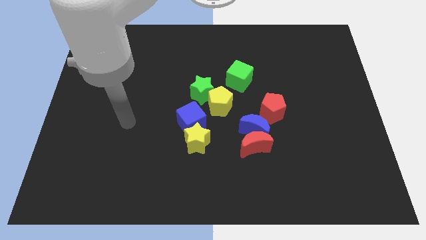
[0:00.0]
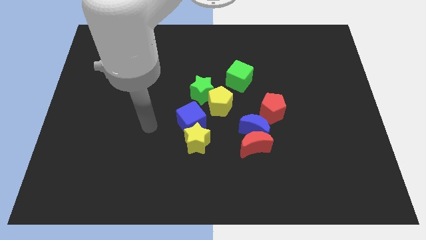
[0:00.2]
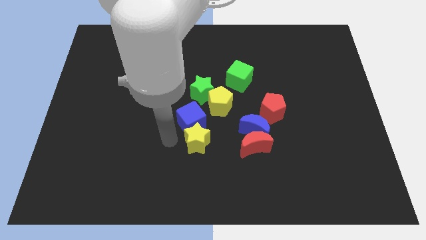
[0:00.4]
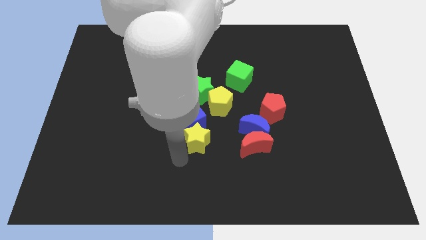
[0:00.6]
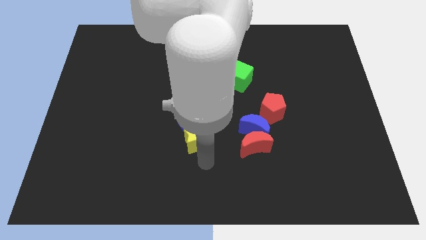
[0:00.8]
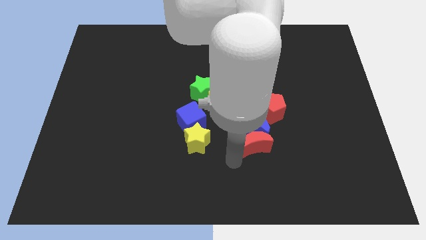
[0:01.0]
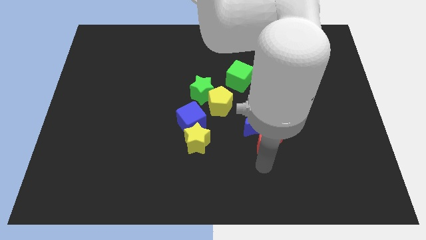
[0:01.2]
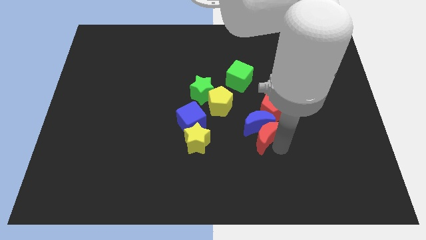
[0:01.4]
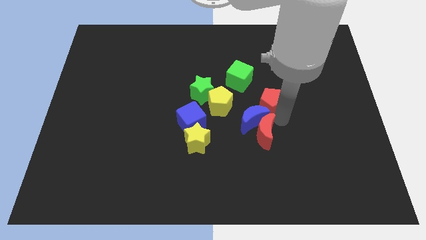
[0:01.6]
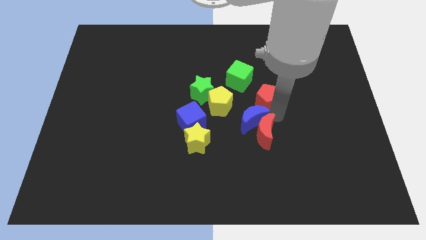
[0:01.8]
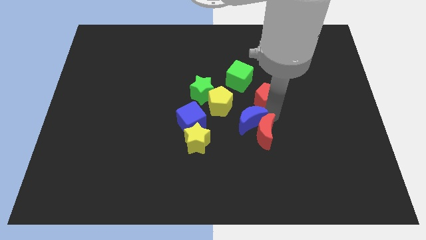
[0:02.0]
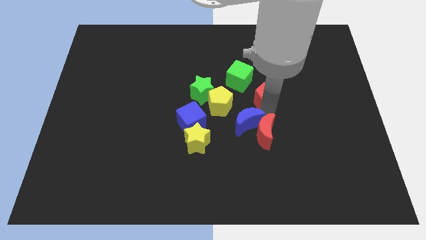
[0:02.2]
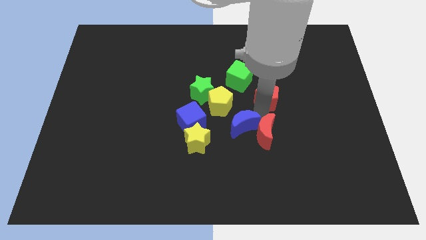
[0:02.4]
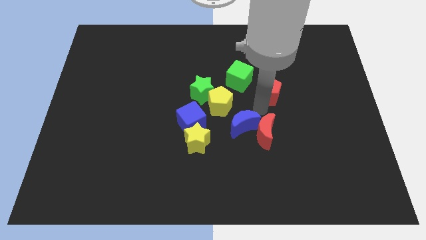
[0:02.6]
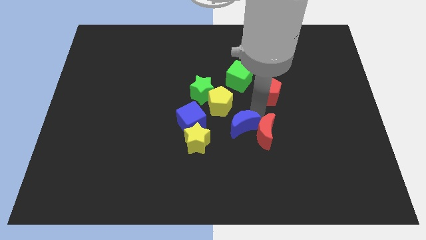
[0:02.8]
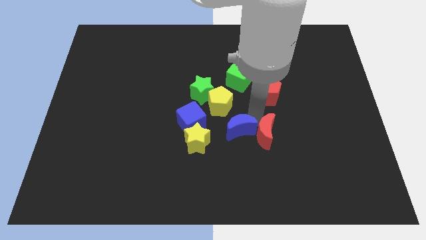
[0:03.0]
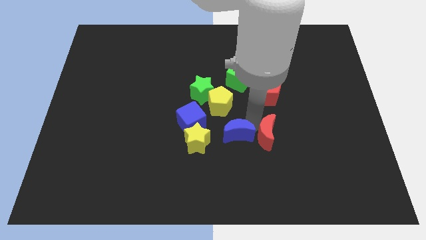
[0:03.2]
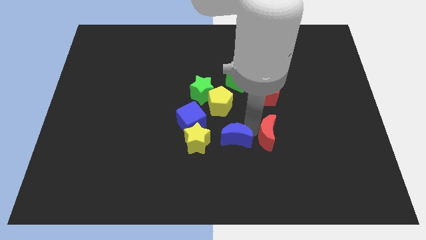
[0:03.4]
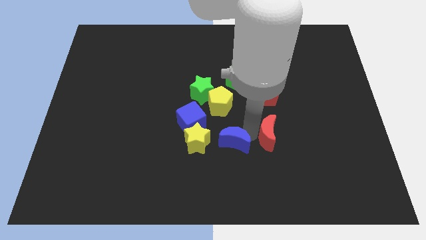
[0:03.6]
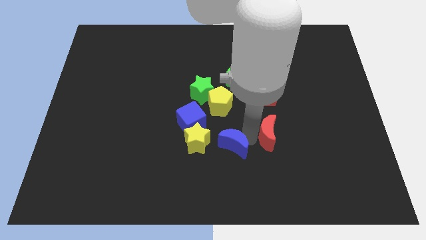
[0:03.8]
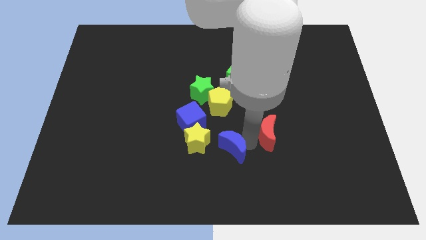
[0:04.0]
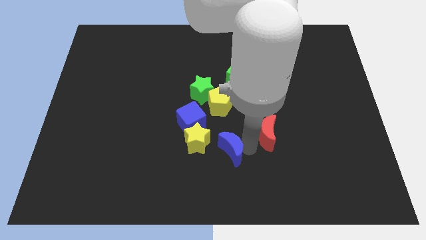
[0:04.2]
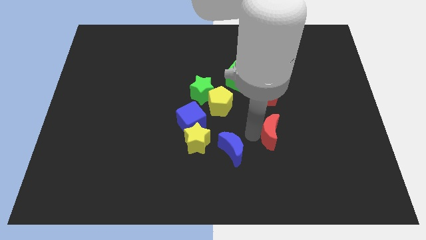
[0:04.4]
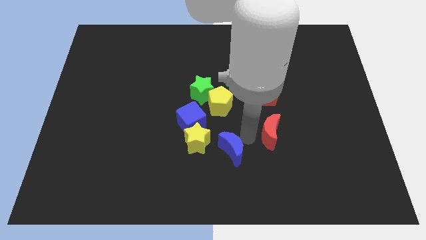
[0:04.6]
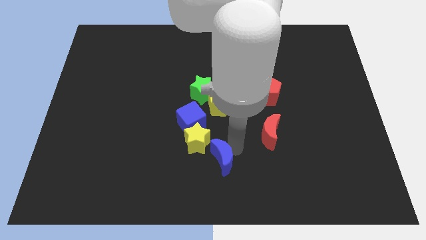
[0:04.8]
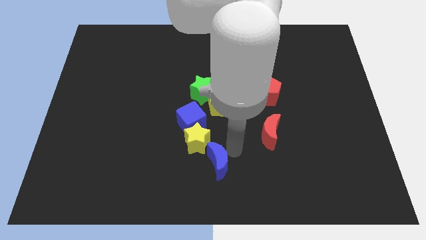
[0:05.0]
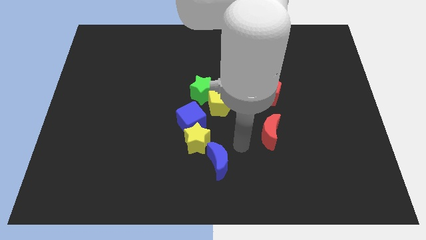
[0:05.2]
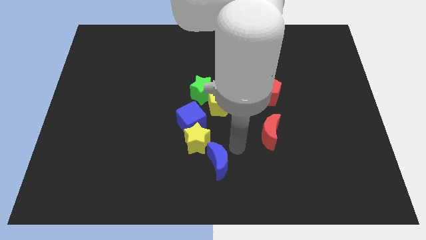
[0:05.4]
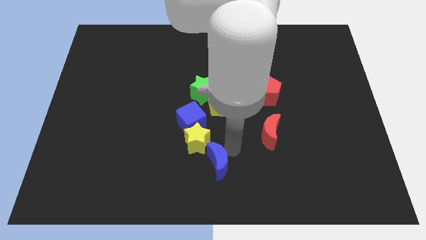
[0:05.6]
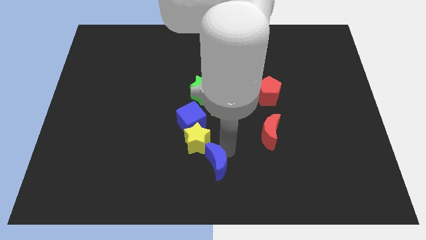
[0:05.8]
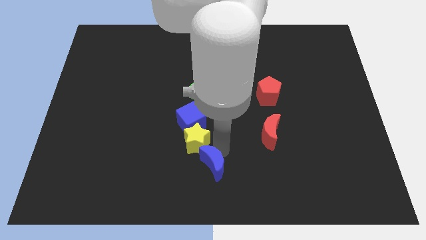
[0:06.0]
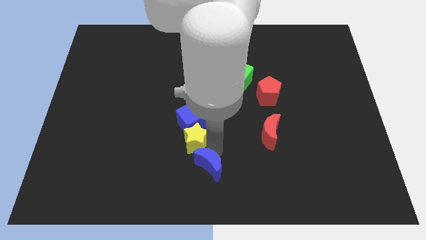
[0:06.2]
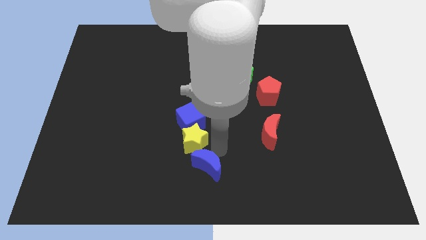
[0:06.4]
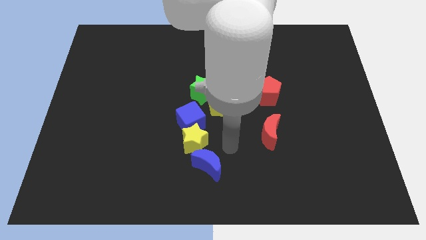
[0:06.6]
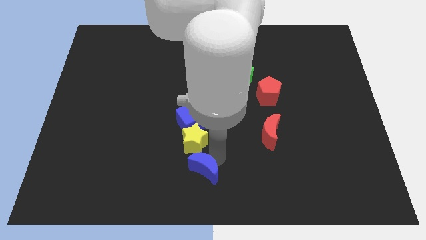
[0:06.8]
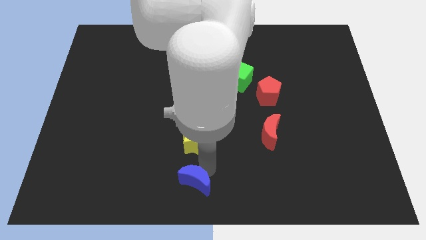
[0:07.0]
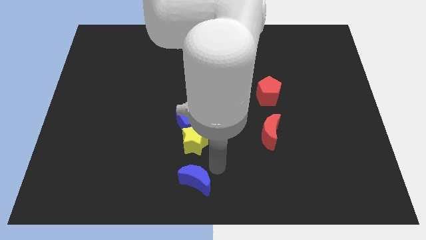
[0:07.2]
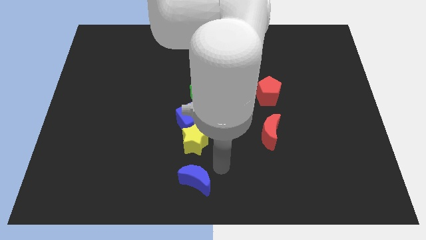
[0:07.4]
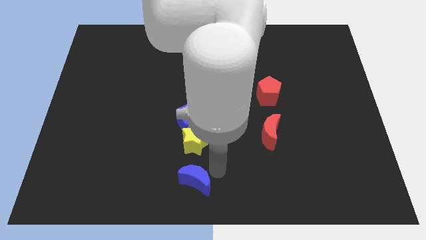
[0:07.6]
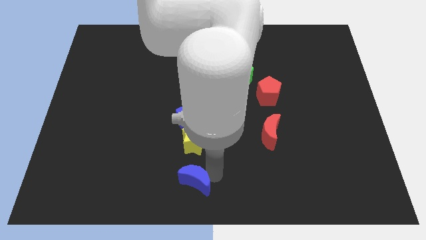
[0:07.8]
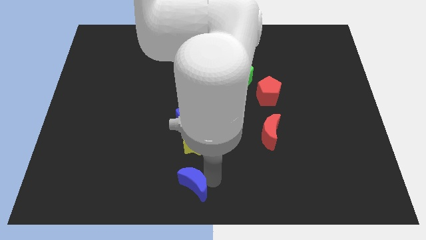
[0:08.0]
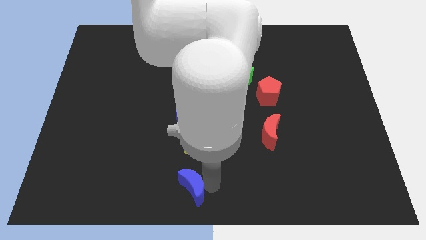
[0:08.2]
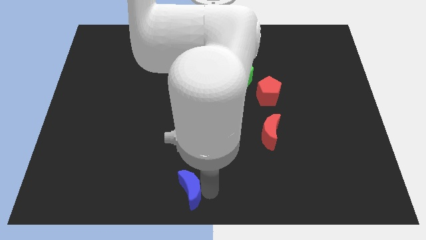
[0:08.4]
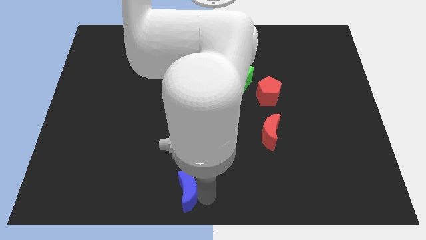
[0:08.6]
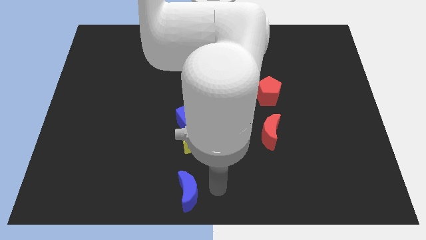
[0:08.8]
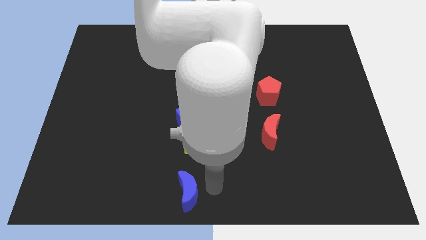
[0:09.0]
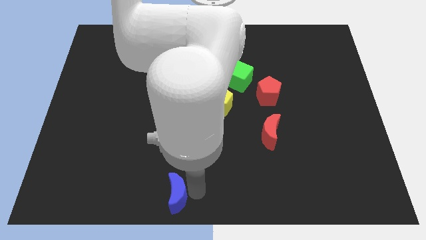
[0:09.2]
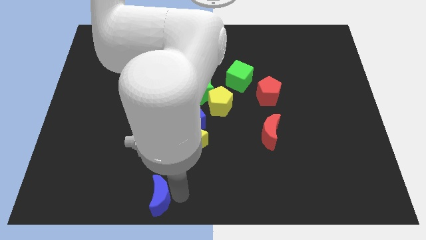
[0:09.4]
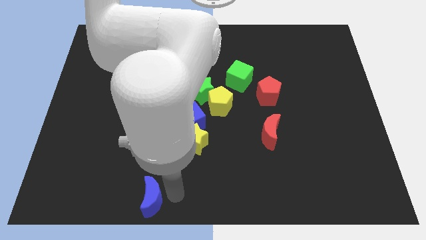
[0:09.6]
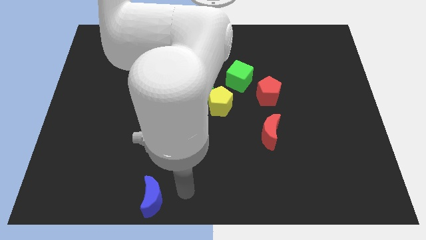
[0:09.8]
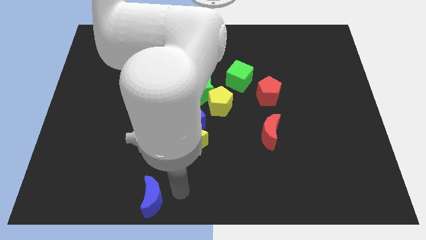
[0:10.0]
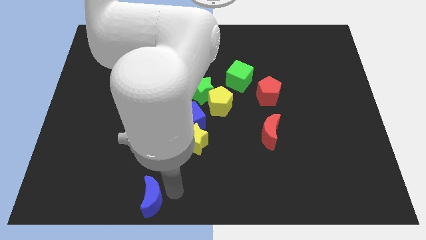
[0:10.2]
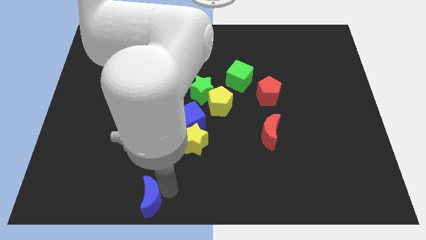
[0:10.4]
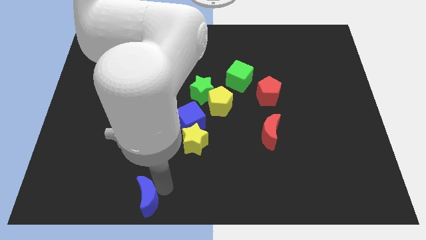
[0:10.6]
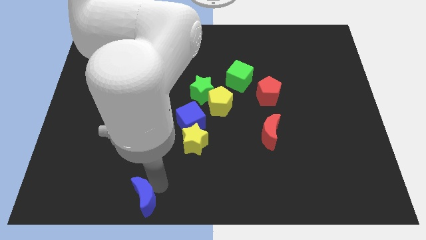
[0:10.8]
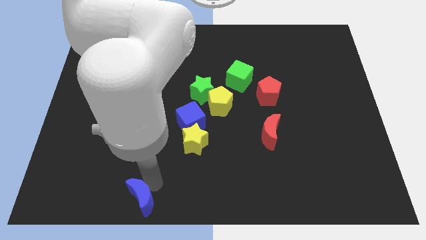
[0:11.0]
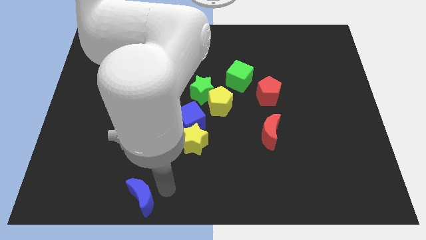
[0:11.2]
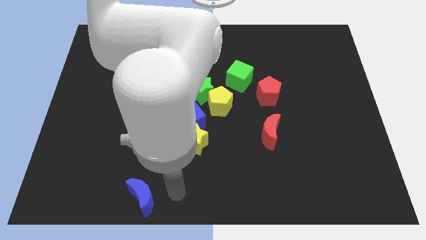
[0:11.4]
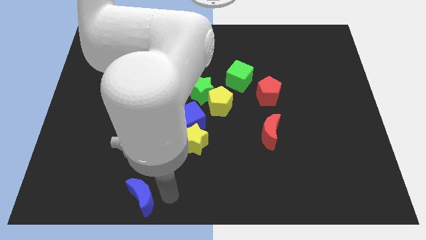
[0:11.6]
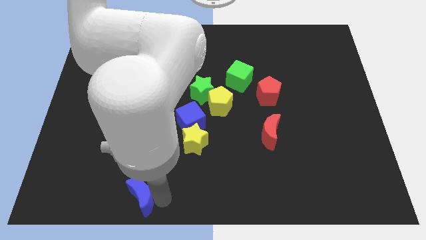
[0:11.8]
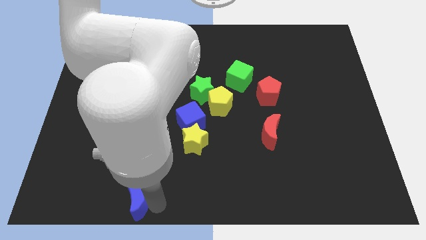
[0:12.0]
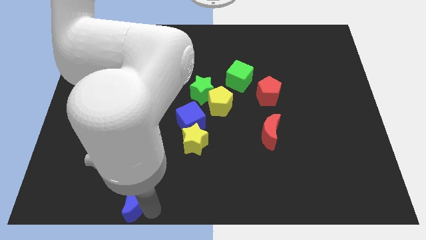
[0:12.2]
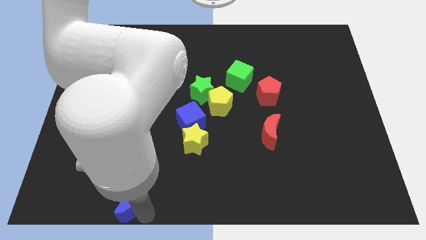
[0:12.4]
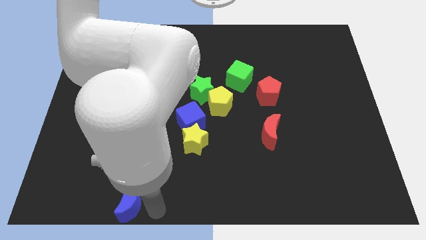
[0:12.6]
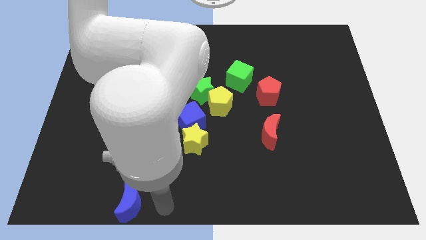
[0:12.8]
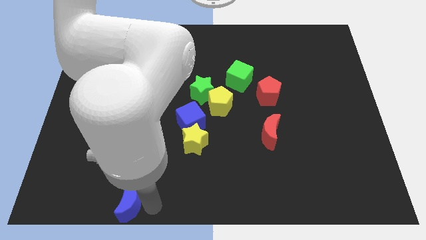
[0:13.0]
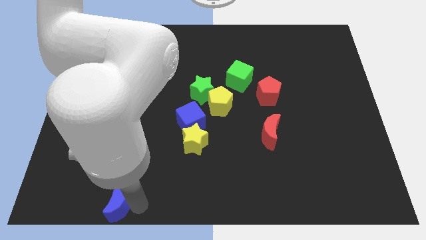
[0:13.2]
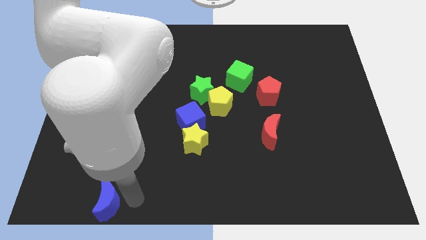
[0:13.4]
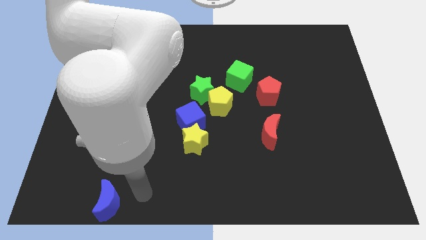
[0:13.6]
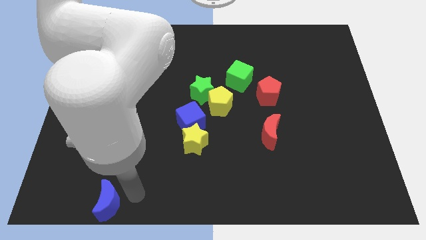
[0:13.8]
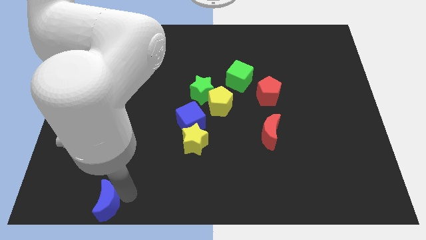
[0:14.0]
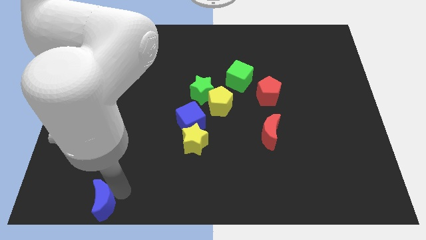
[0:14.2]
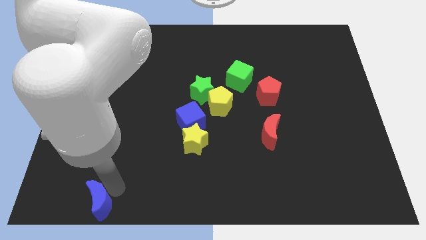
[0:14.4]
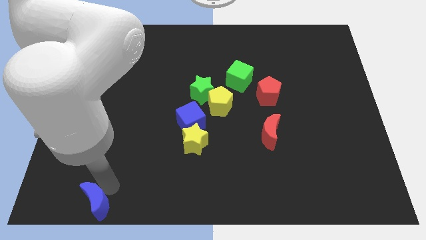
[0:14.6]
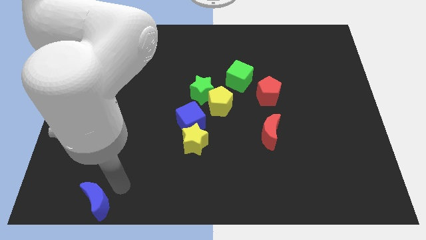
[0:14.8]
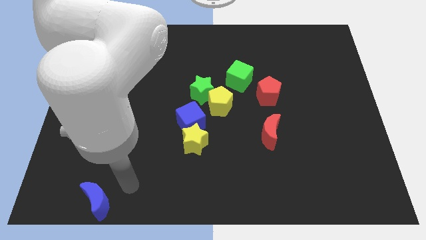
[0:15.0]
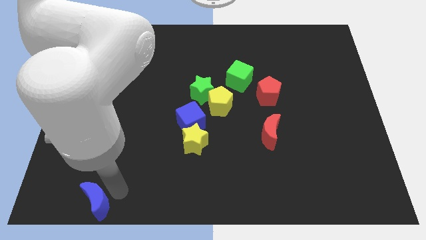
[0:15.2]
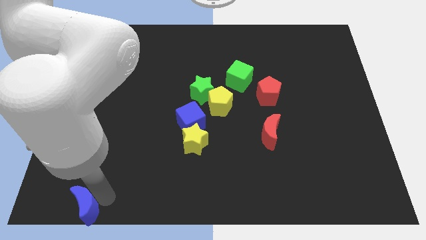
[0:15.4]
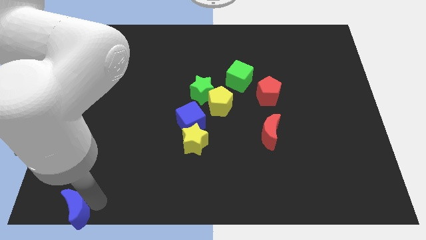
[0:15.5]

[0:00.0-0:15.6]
slide the blue moon to the lower left corner
